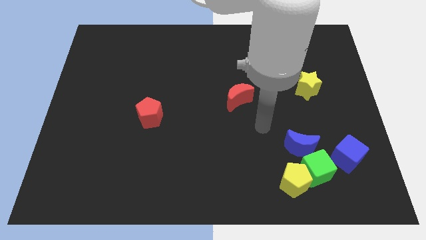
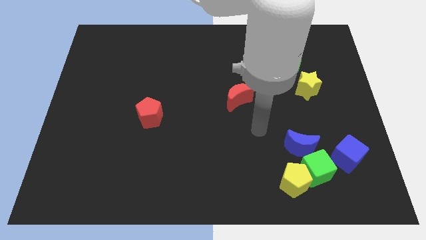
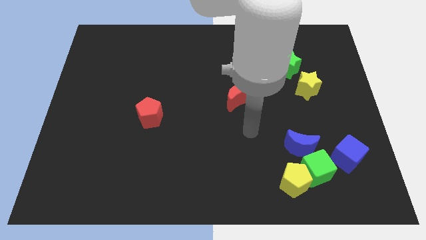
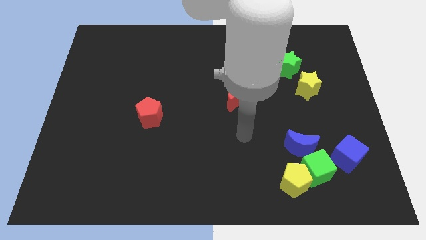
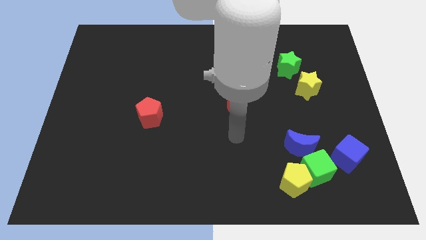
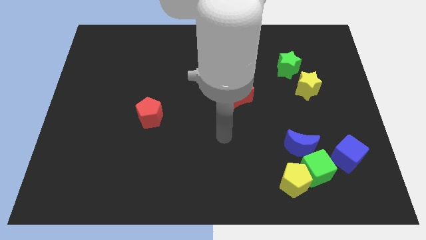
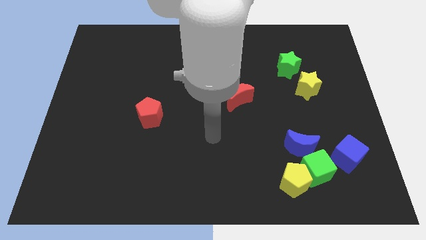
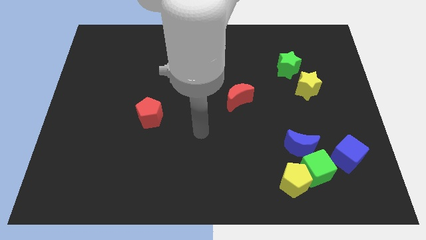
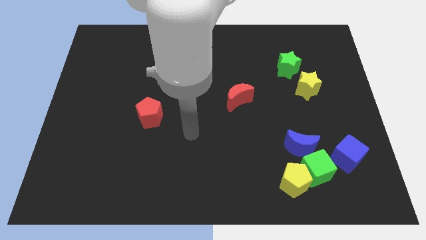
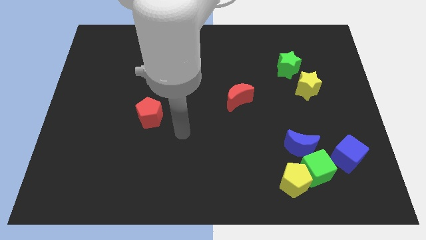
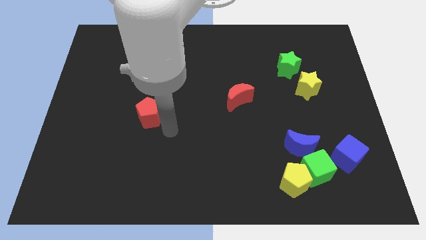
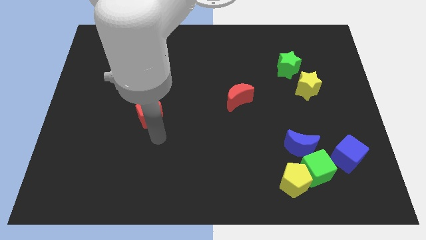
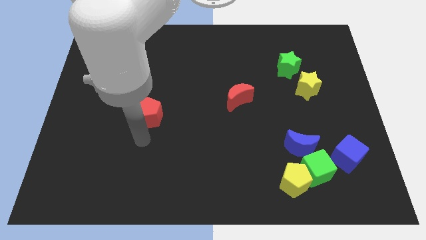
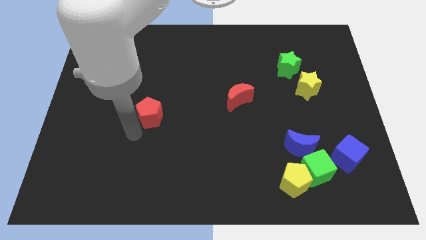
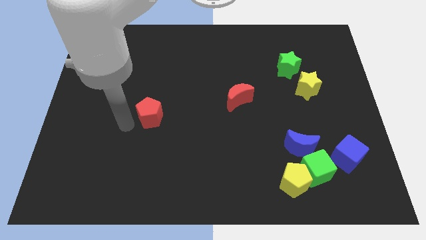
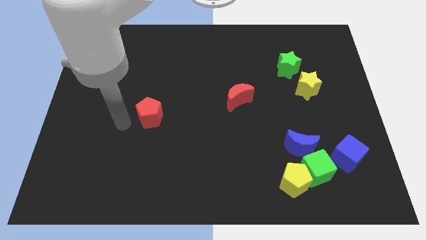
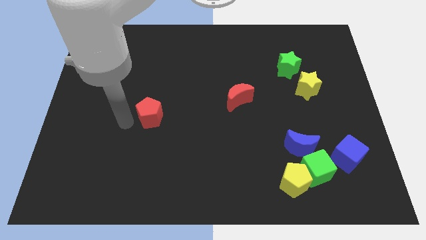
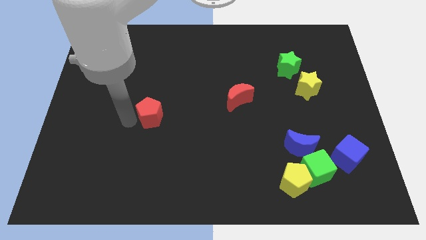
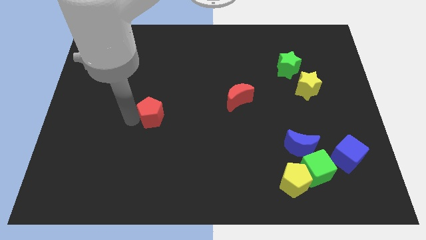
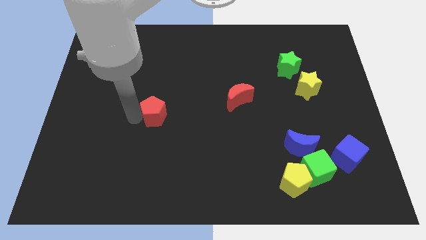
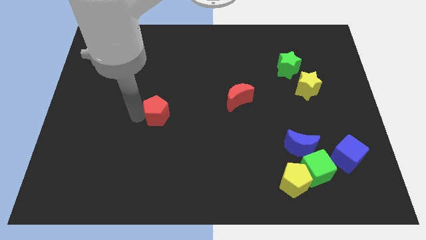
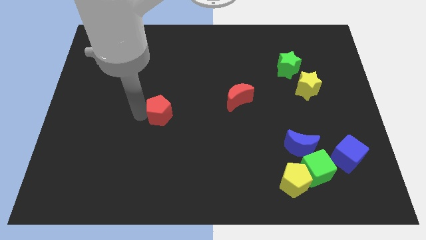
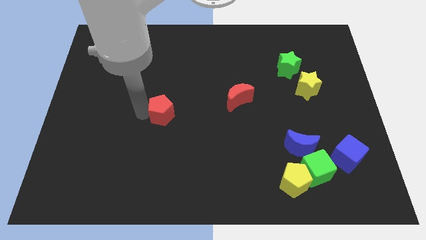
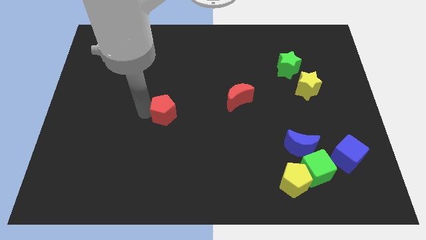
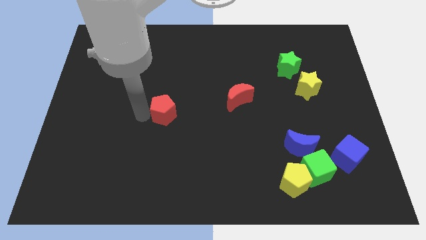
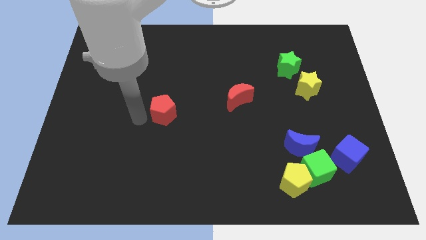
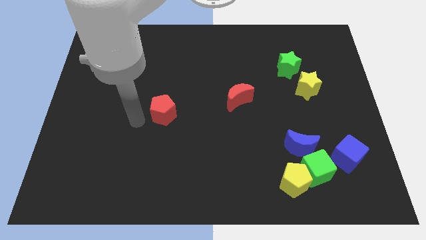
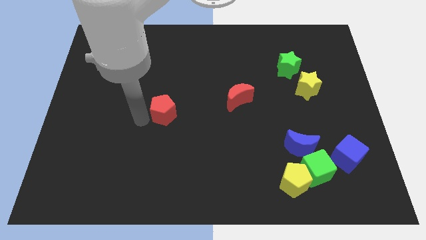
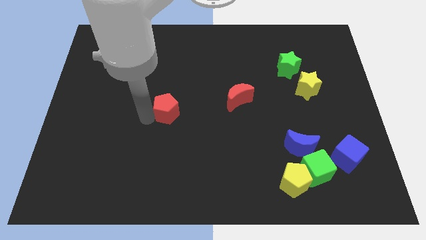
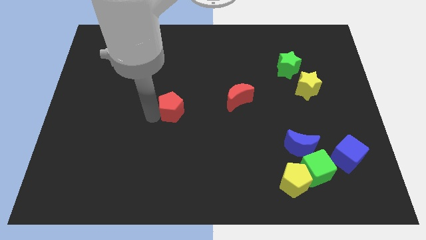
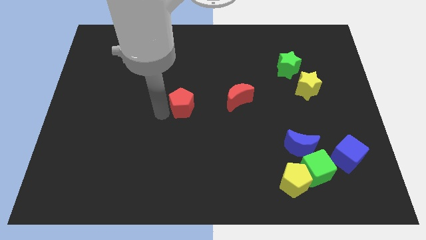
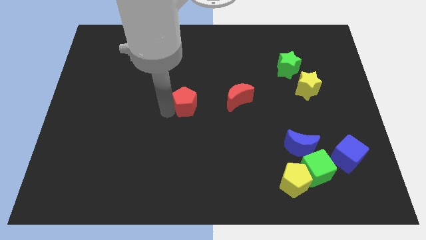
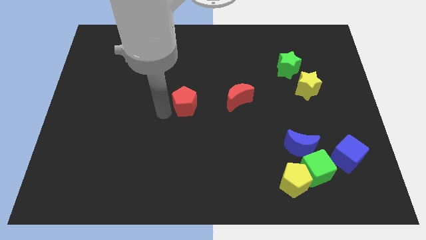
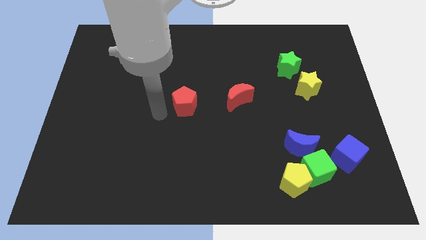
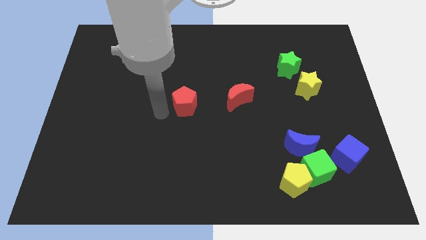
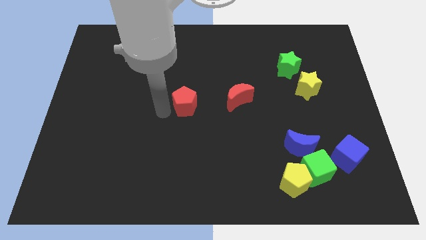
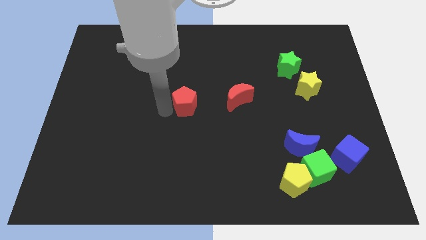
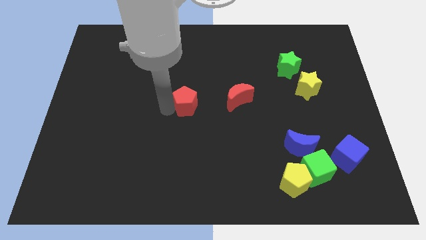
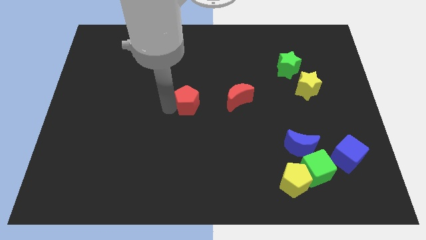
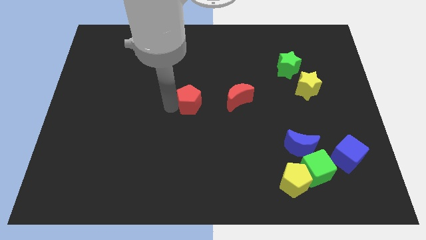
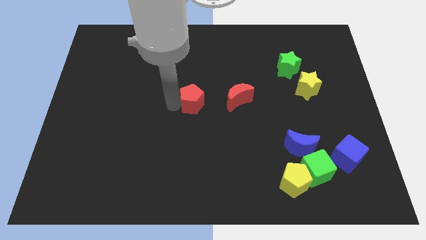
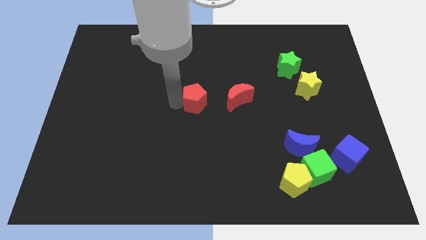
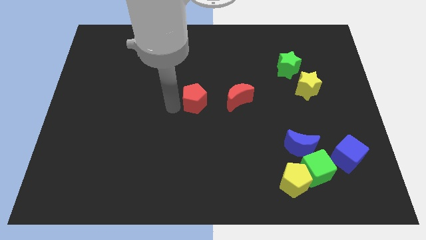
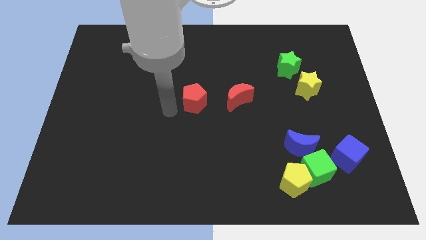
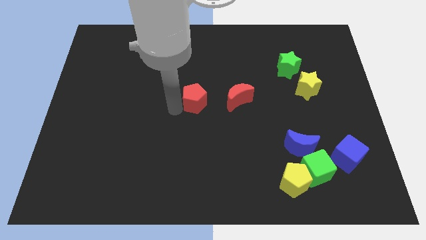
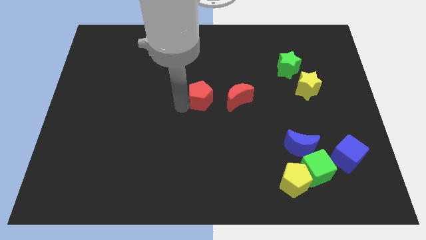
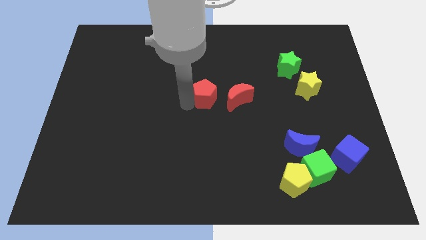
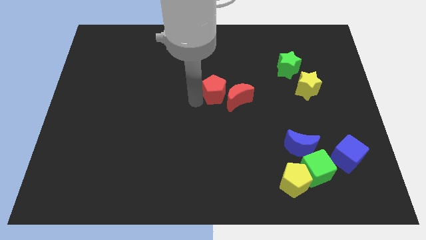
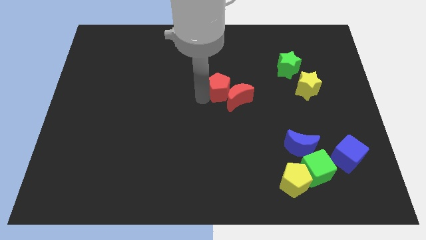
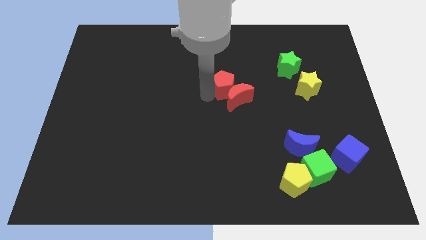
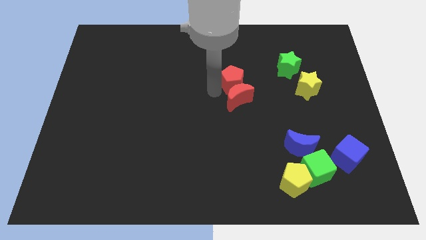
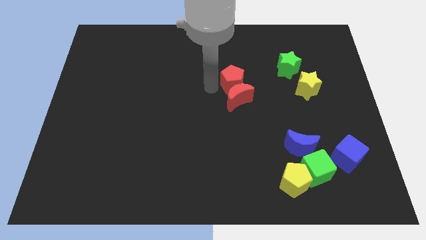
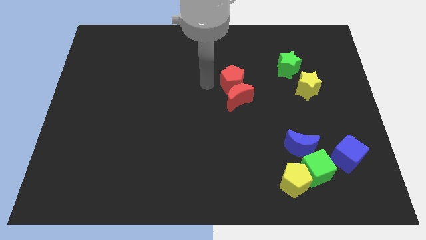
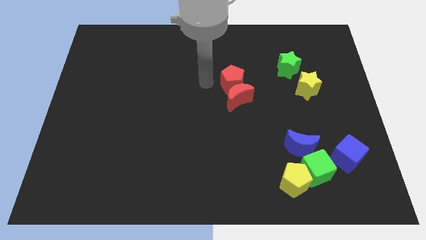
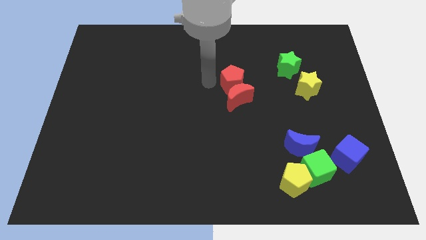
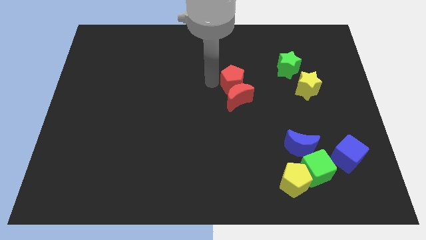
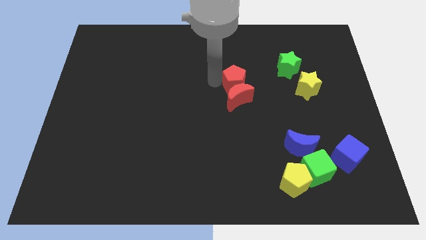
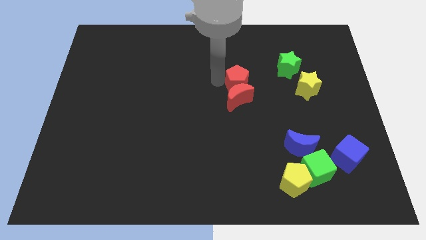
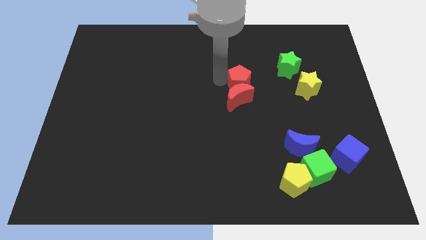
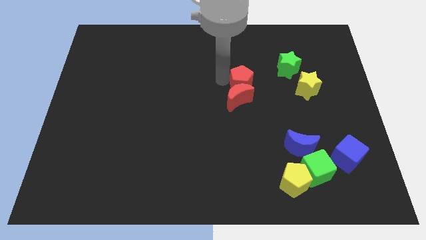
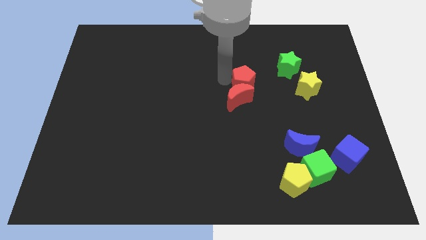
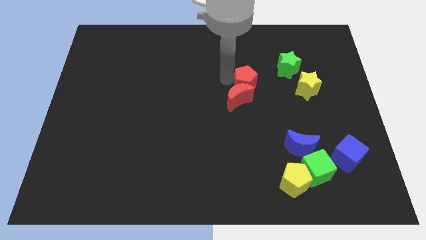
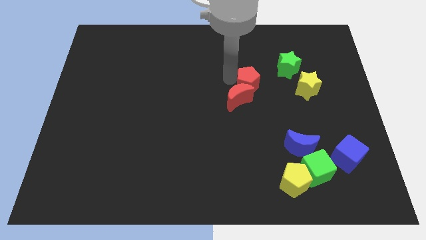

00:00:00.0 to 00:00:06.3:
push the red pentagon to the bottom left of the green star

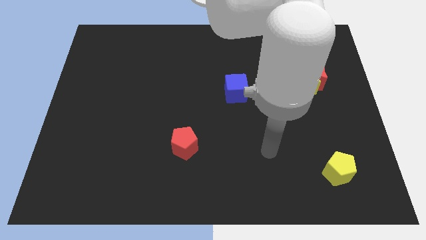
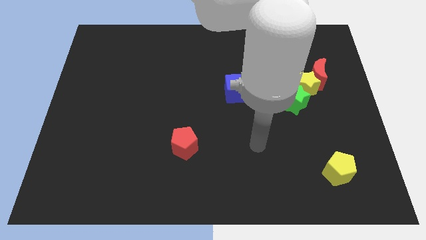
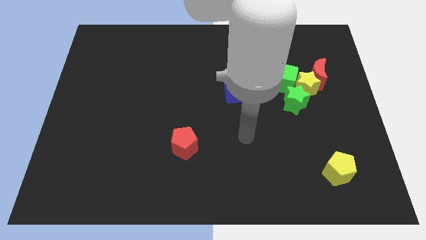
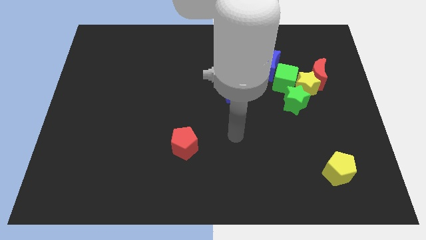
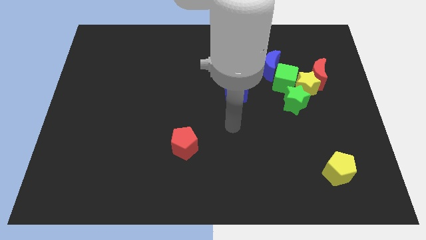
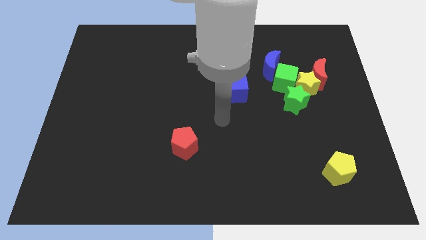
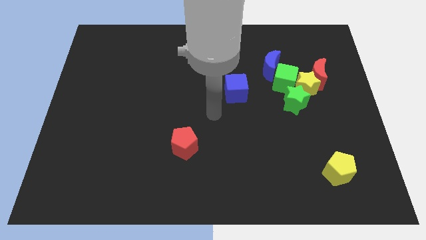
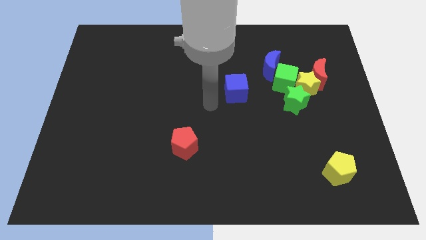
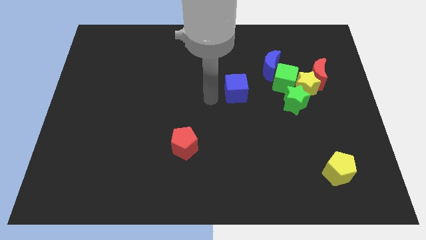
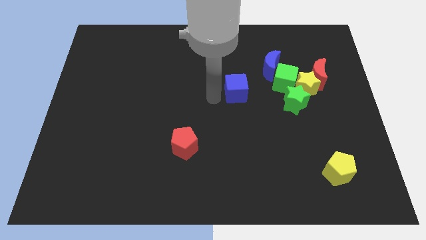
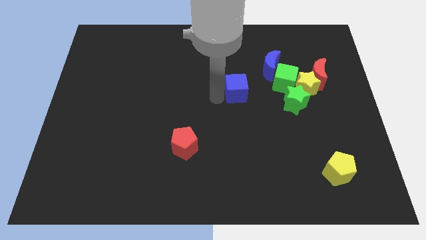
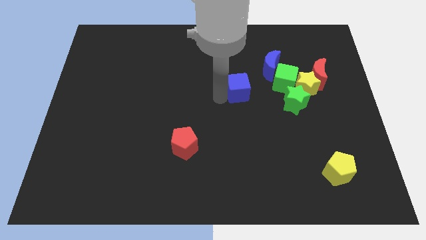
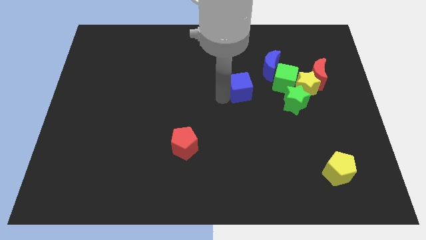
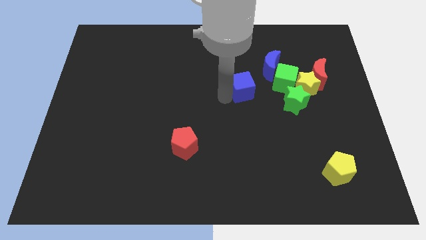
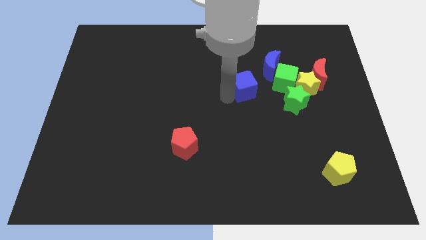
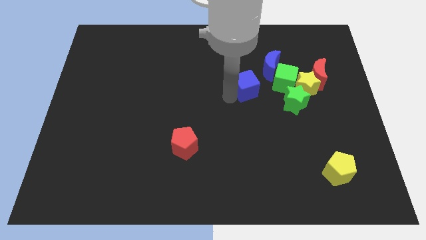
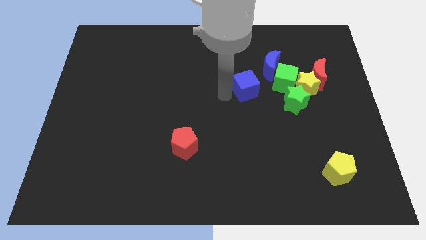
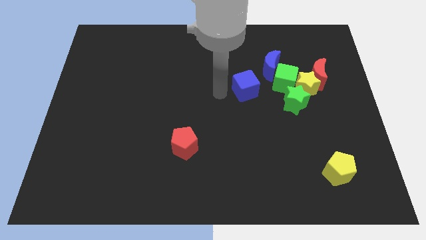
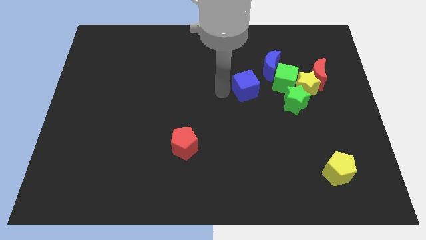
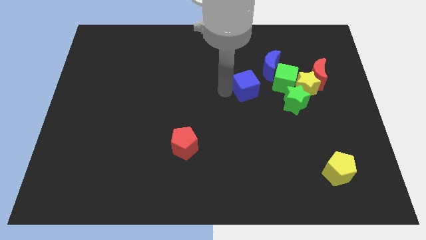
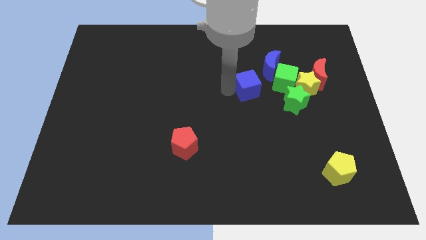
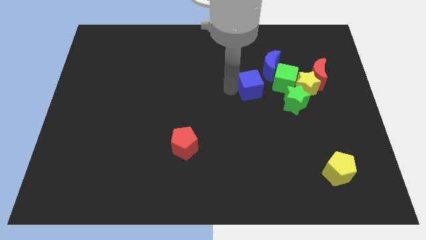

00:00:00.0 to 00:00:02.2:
push the blue cube to the top left of the green star
